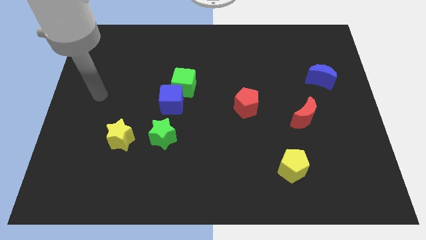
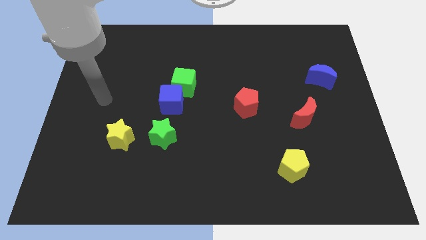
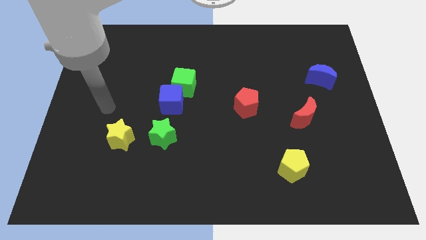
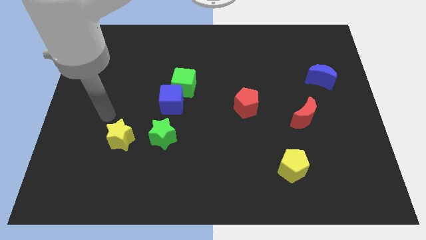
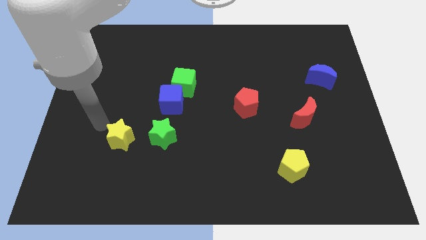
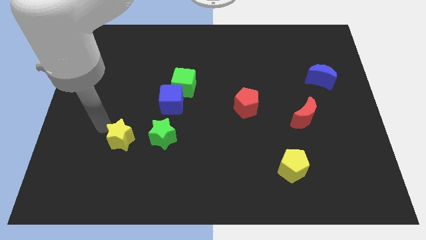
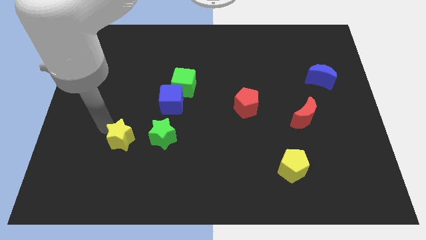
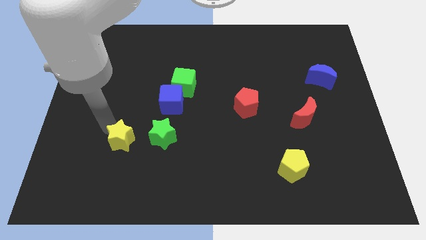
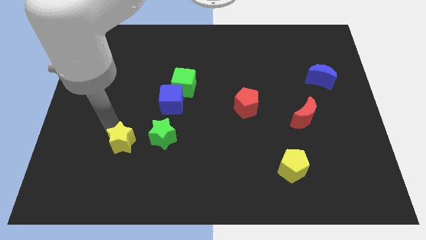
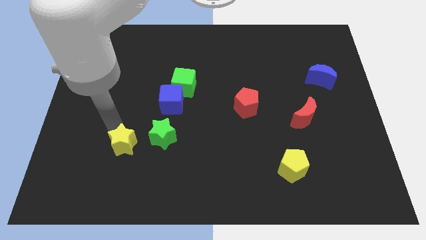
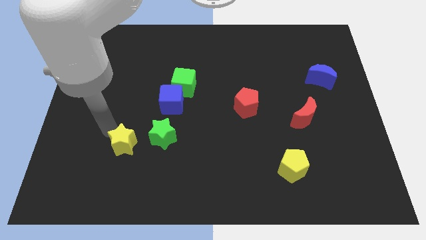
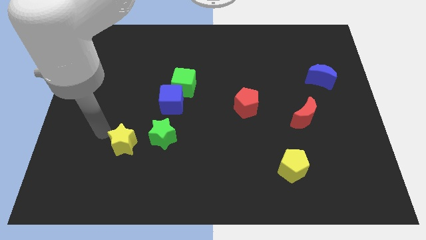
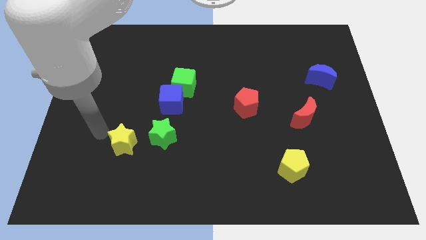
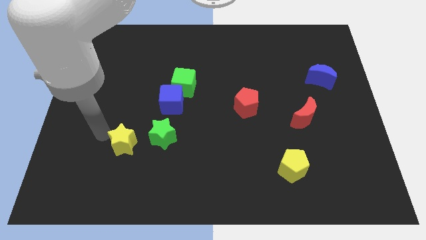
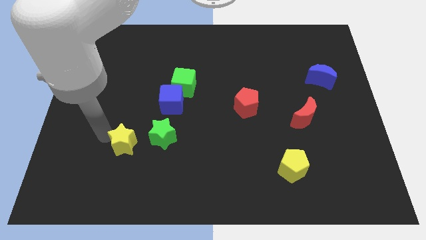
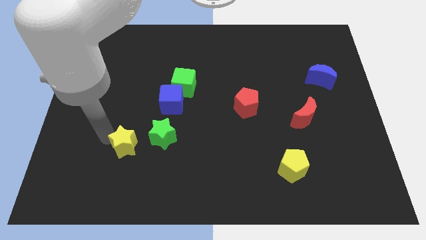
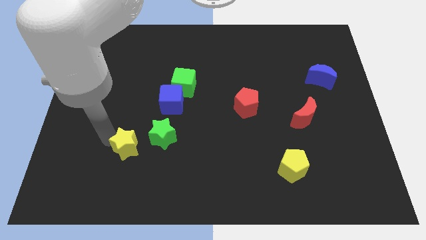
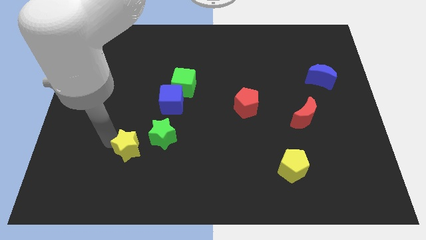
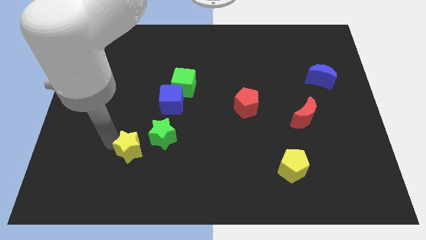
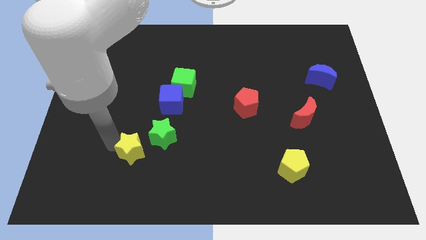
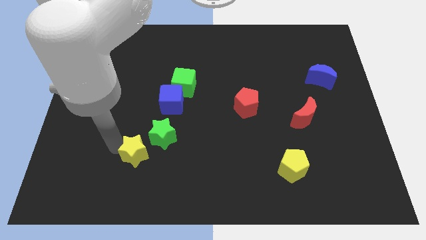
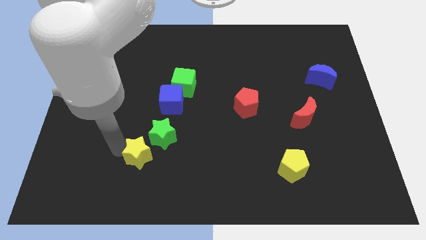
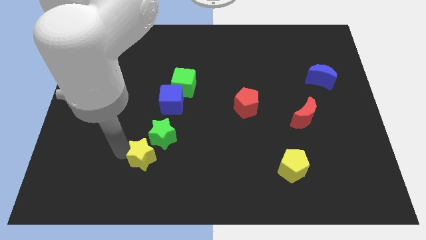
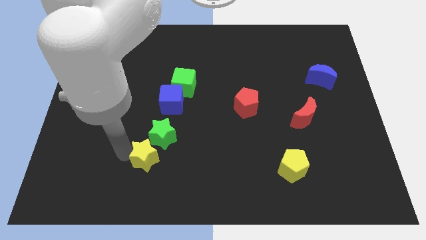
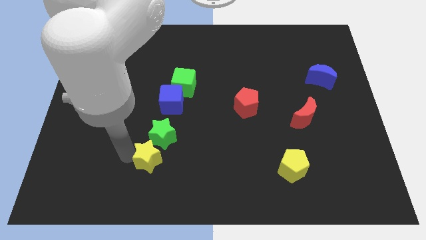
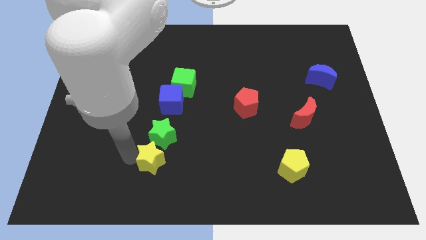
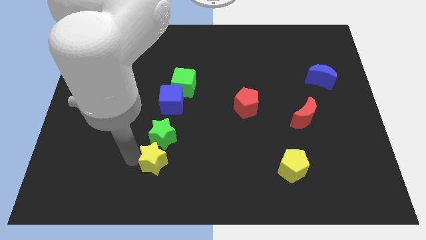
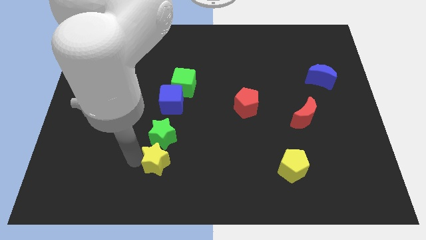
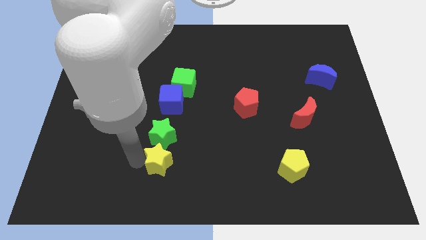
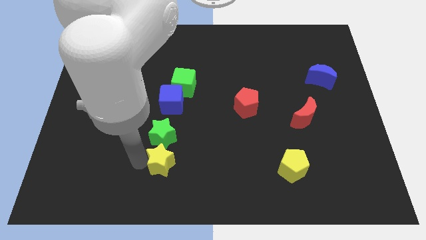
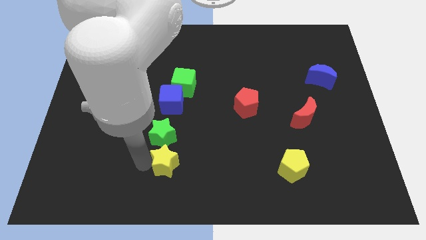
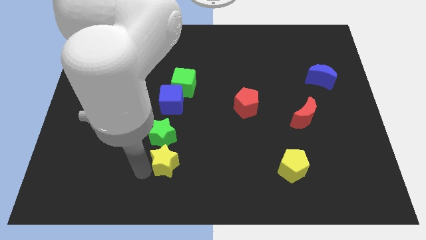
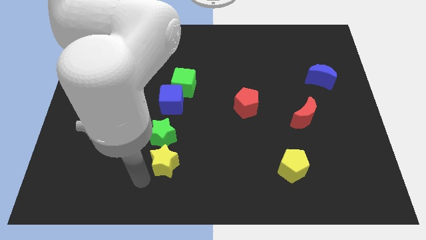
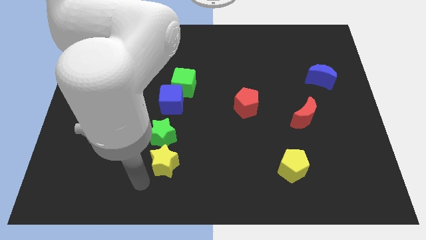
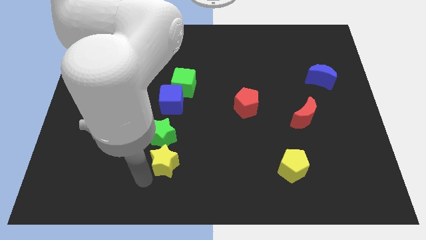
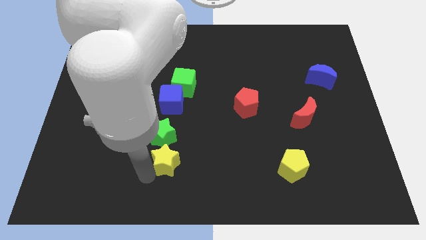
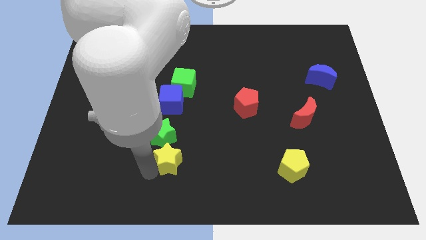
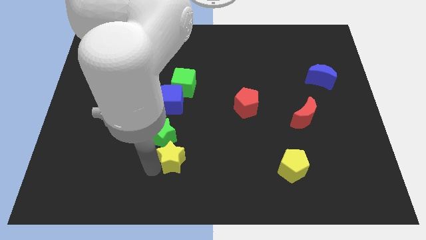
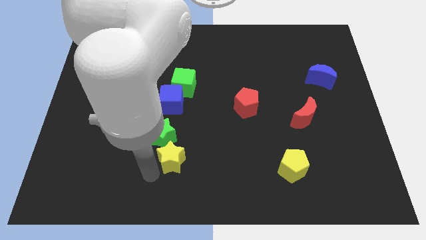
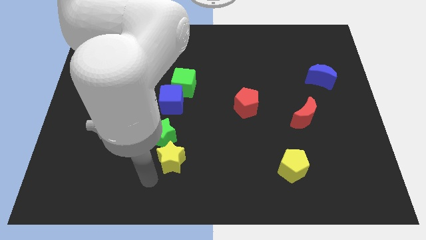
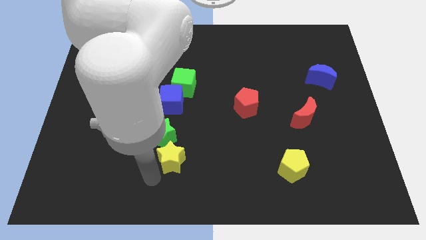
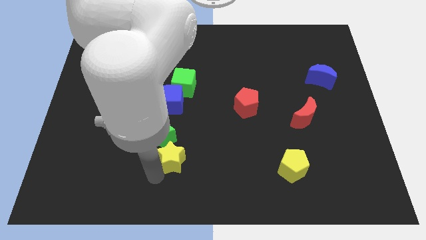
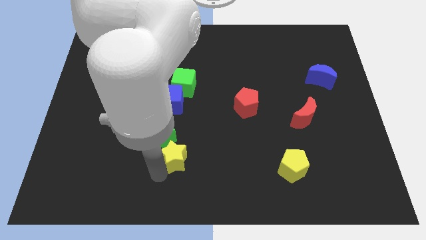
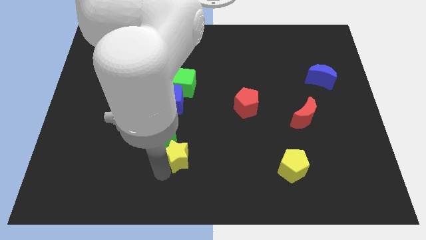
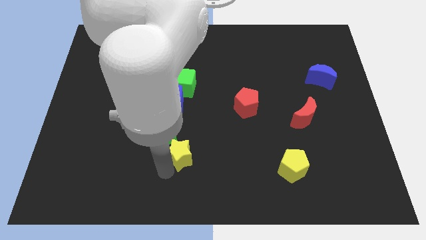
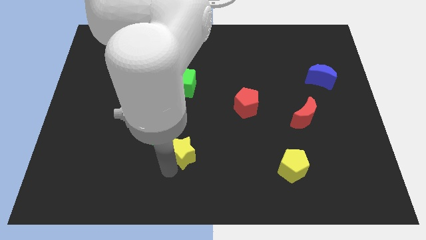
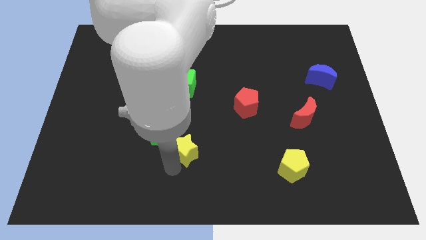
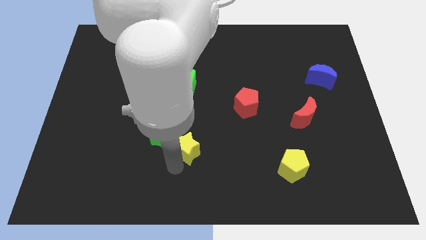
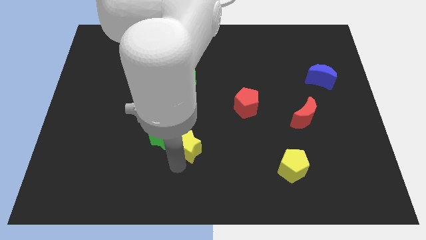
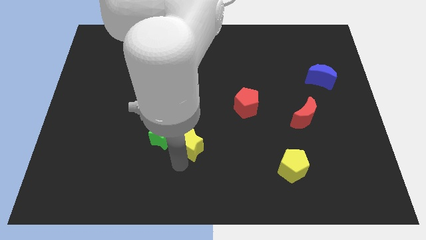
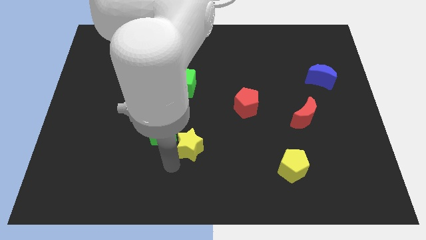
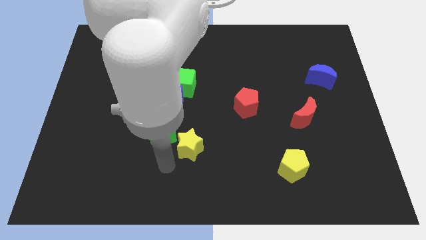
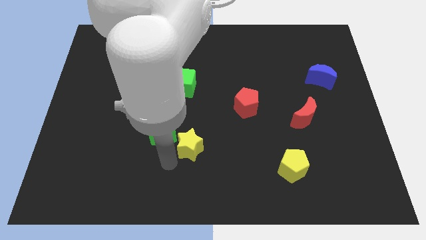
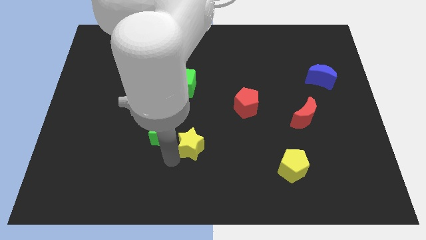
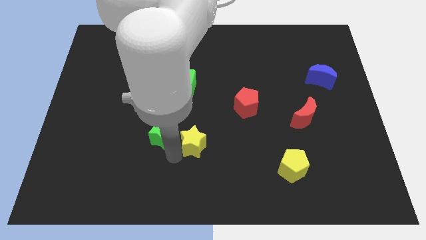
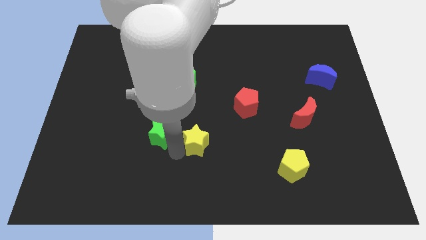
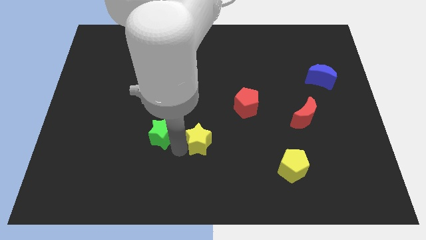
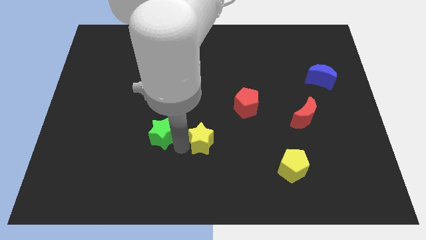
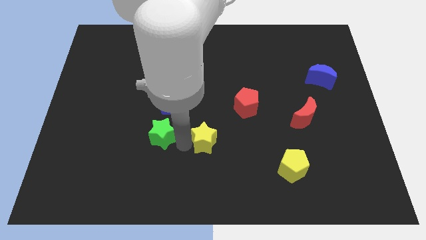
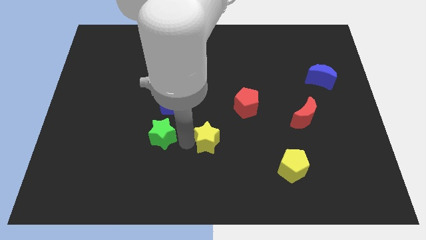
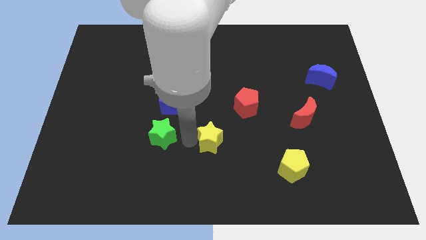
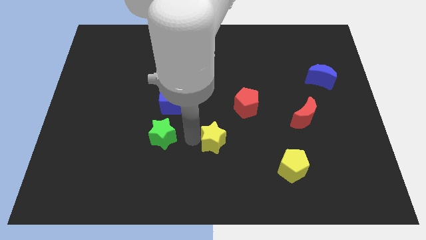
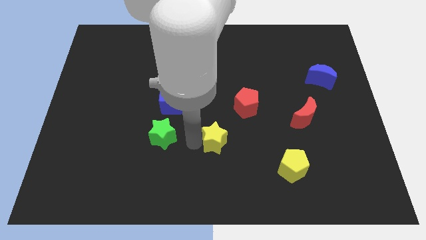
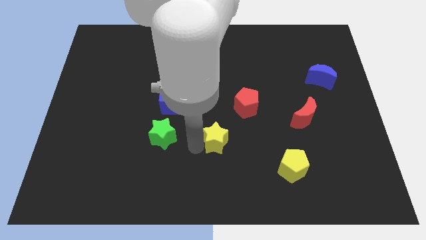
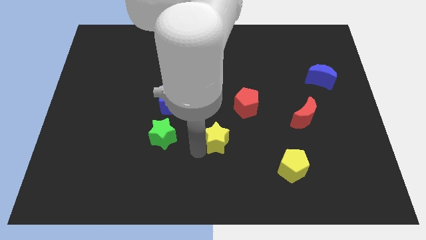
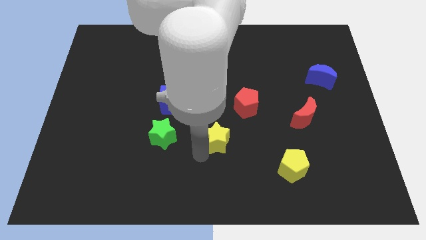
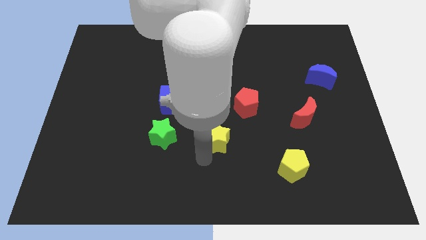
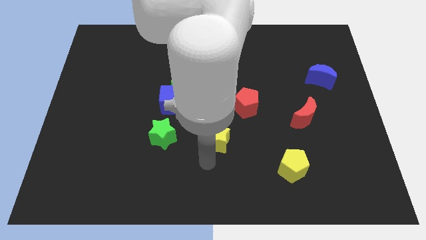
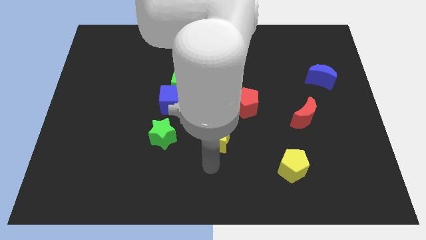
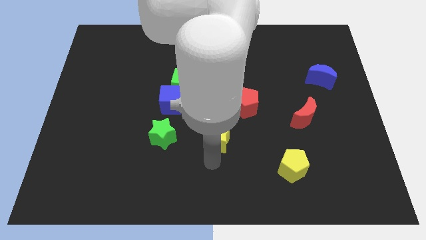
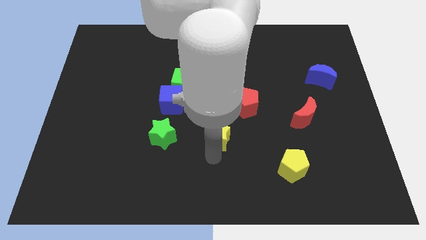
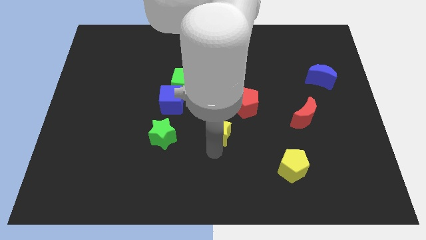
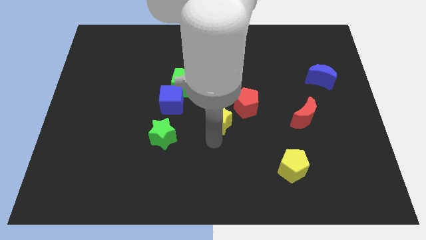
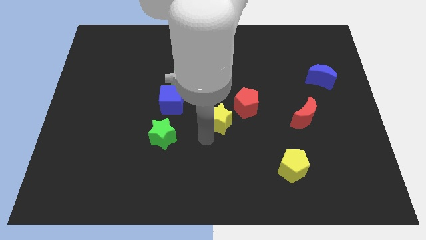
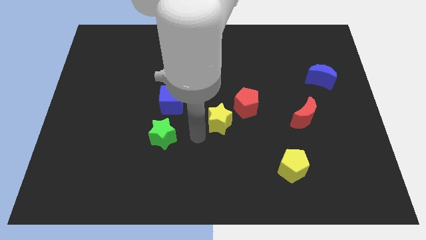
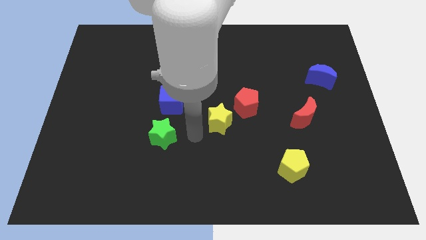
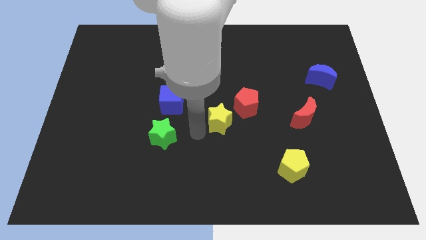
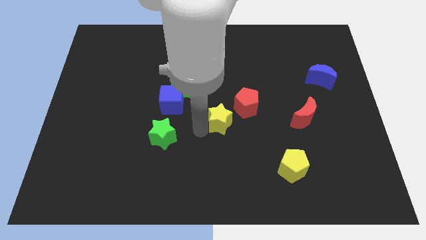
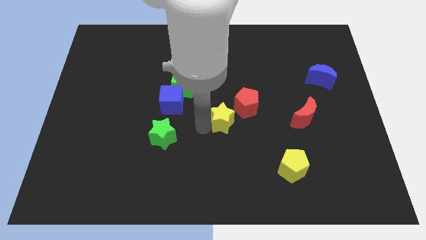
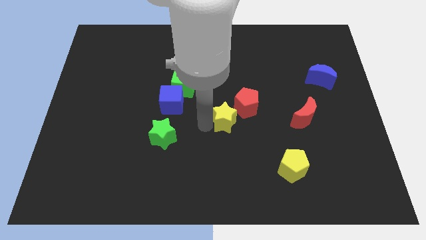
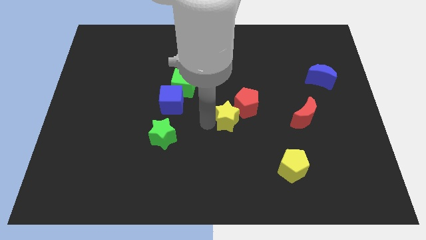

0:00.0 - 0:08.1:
put the yellow star close to the red pentagon
